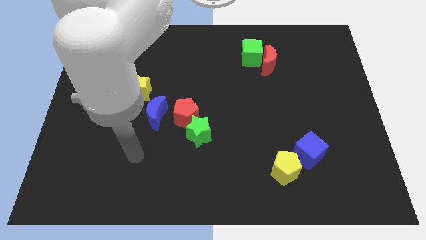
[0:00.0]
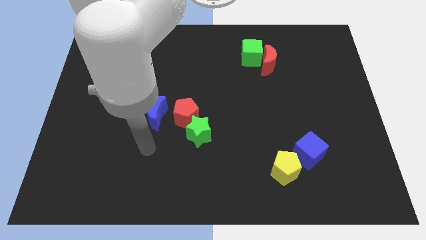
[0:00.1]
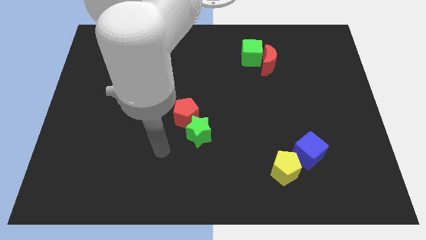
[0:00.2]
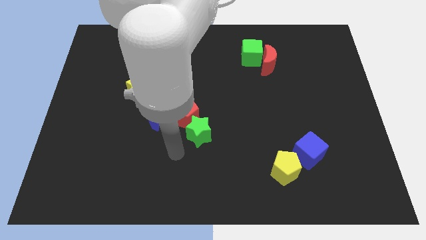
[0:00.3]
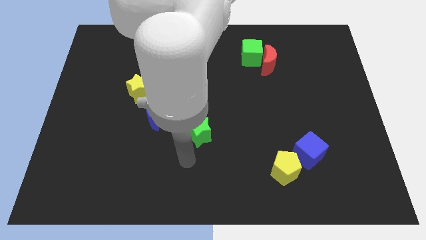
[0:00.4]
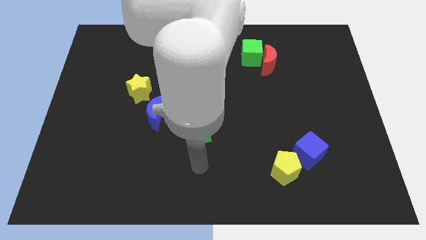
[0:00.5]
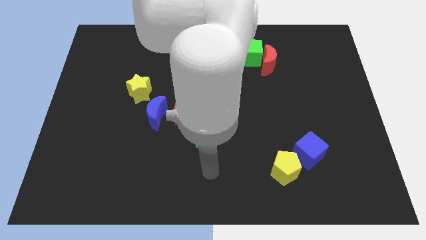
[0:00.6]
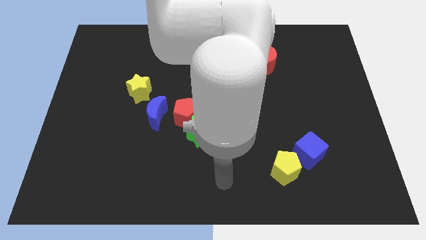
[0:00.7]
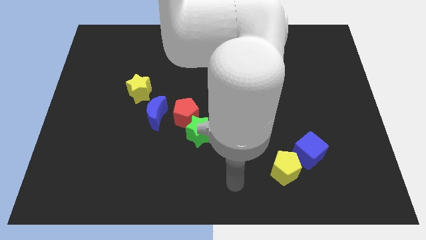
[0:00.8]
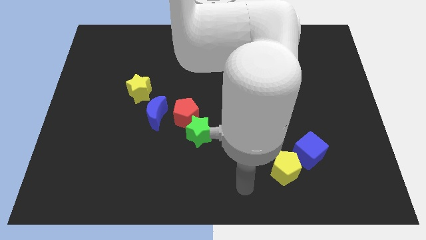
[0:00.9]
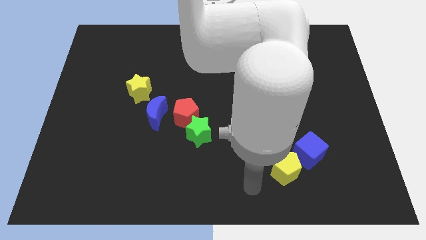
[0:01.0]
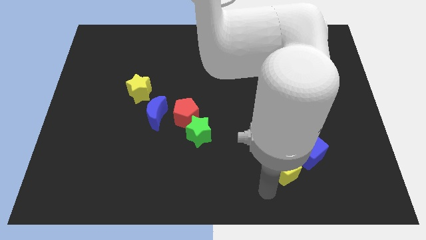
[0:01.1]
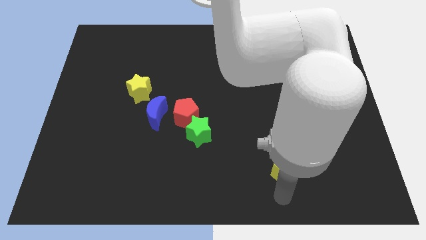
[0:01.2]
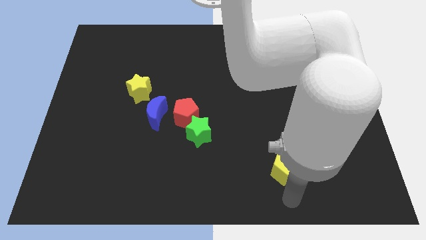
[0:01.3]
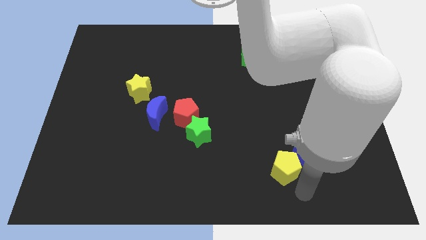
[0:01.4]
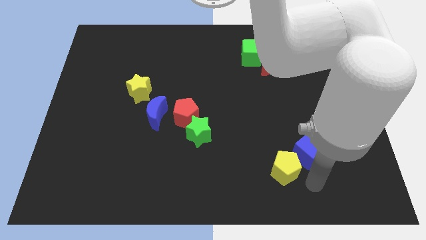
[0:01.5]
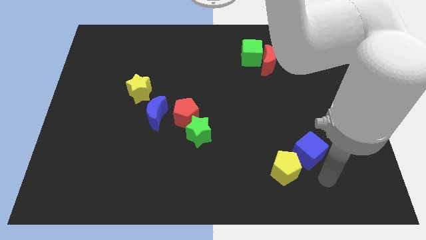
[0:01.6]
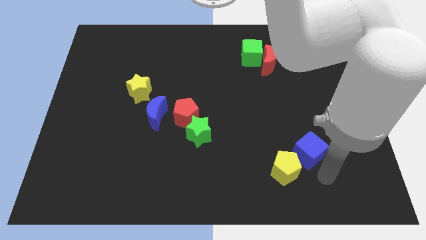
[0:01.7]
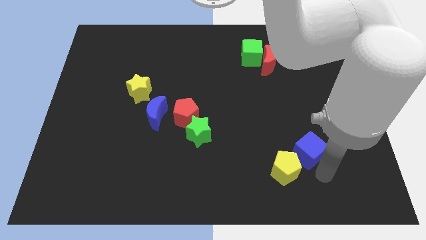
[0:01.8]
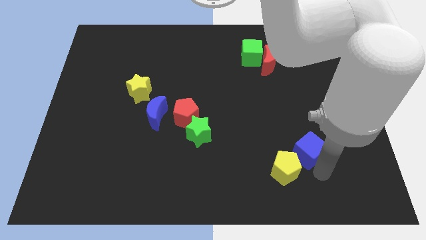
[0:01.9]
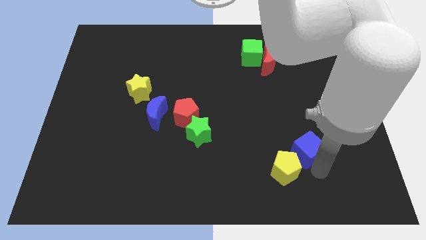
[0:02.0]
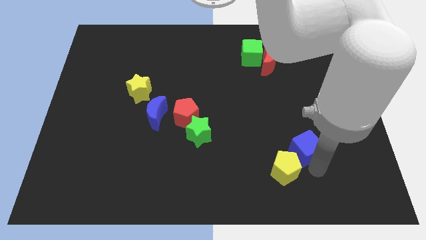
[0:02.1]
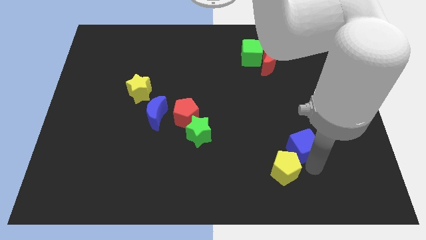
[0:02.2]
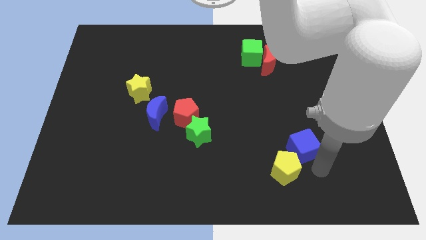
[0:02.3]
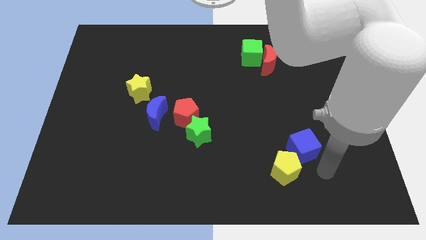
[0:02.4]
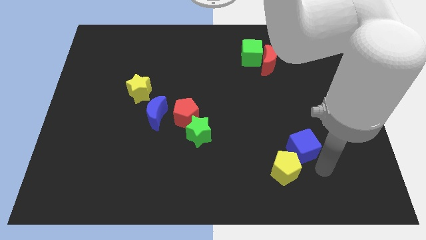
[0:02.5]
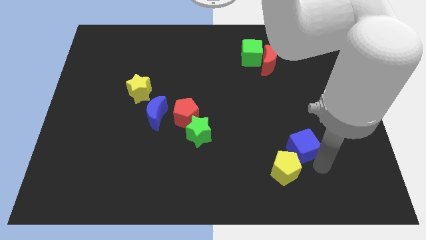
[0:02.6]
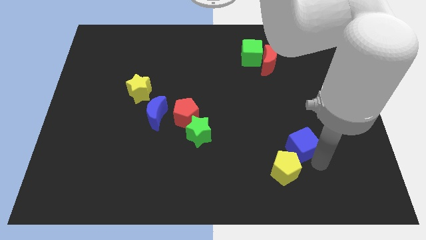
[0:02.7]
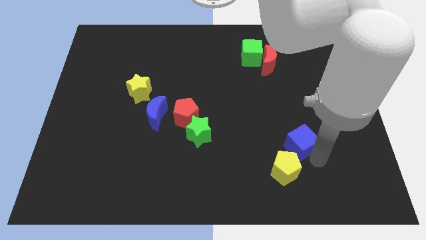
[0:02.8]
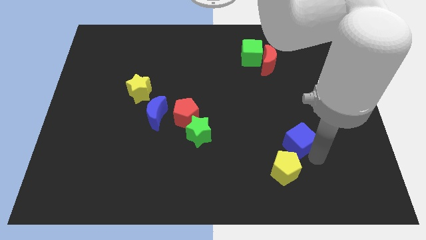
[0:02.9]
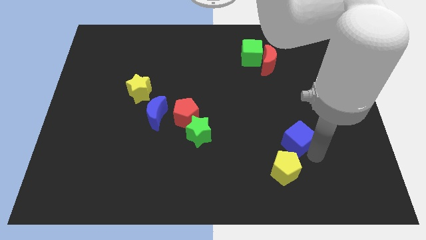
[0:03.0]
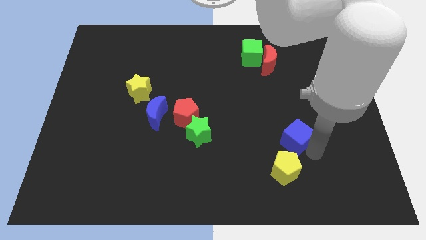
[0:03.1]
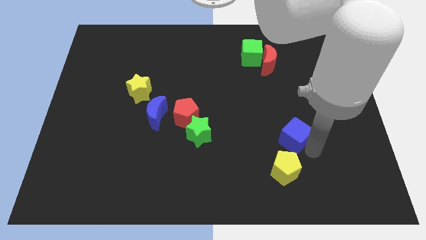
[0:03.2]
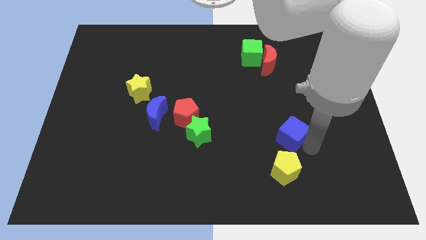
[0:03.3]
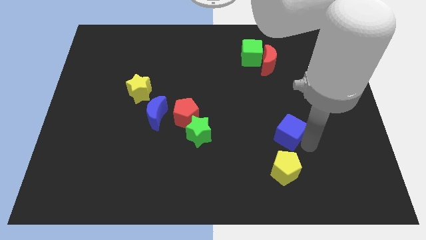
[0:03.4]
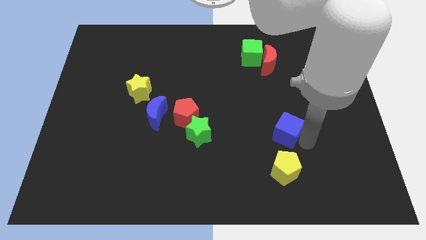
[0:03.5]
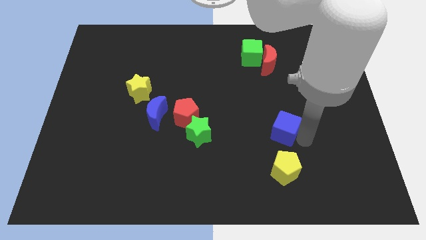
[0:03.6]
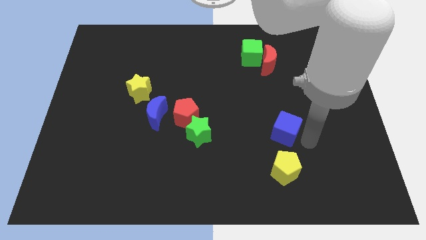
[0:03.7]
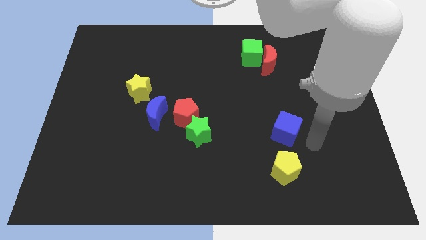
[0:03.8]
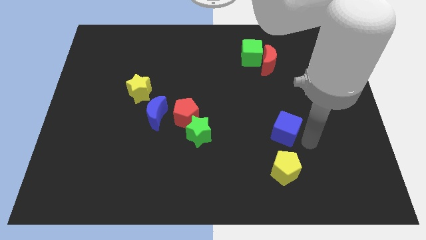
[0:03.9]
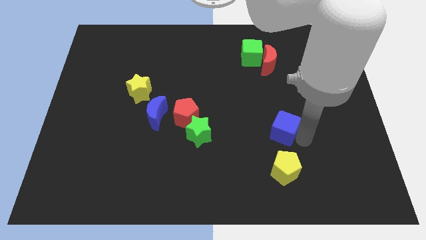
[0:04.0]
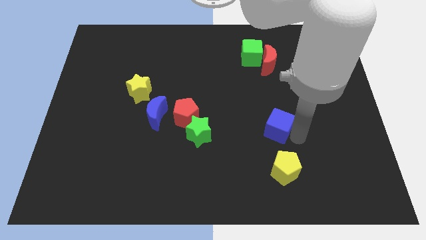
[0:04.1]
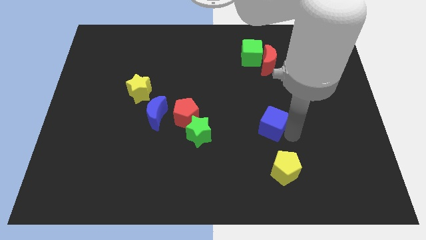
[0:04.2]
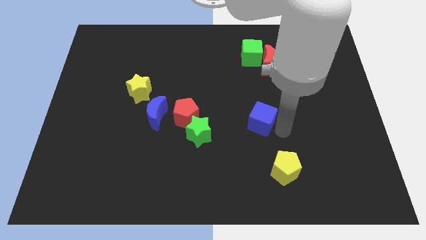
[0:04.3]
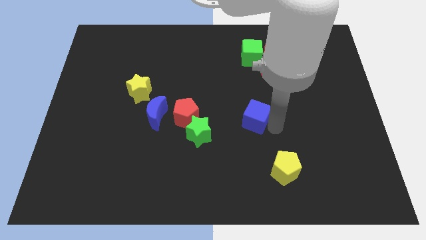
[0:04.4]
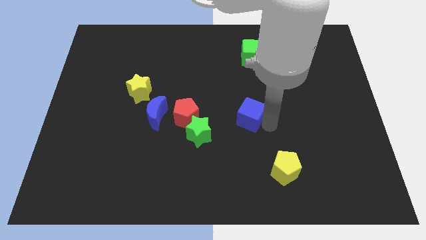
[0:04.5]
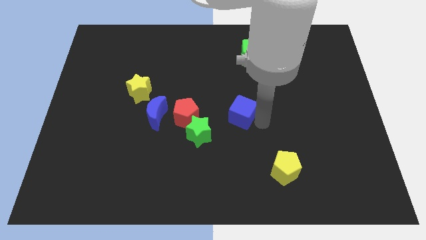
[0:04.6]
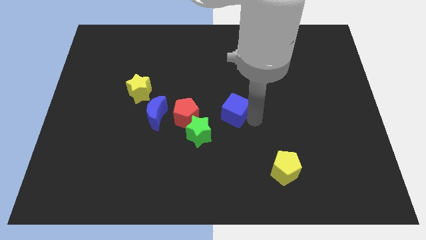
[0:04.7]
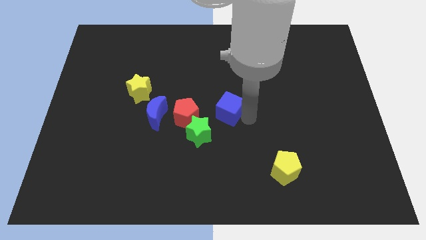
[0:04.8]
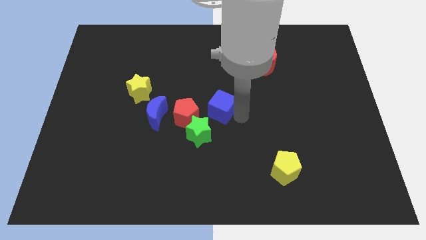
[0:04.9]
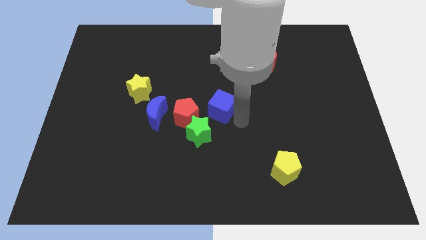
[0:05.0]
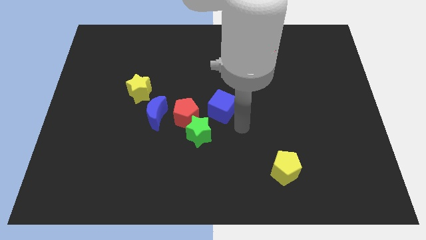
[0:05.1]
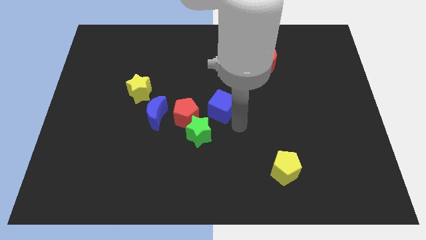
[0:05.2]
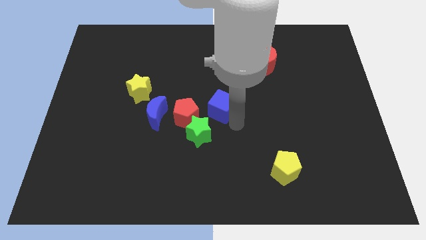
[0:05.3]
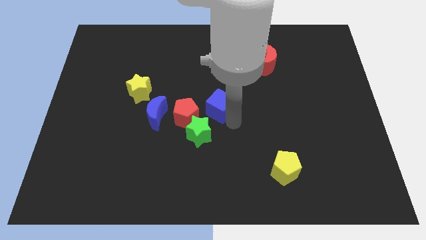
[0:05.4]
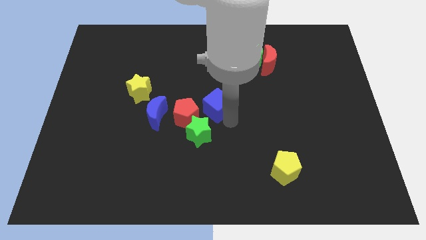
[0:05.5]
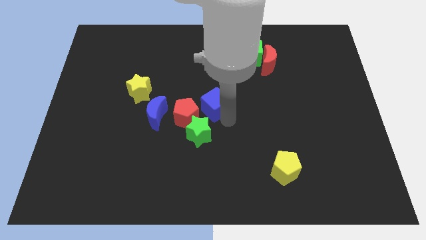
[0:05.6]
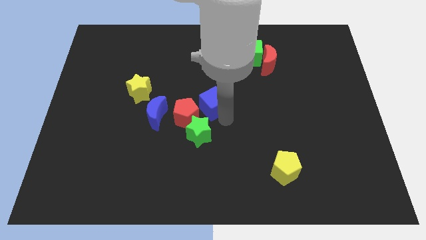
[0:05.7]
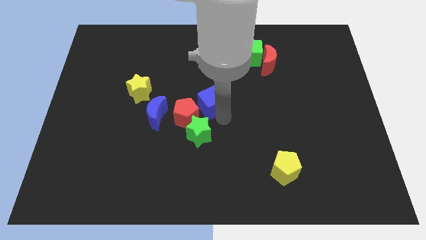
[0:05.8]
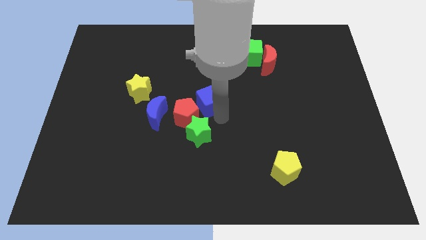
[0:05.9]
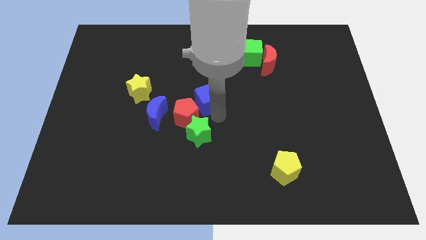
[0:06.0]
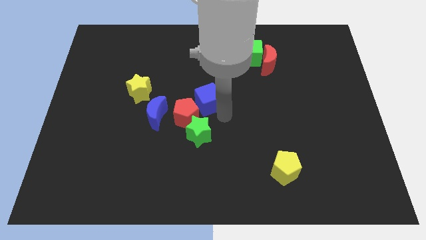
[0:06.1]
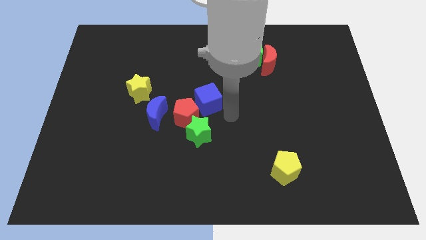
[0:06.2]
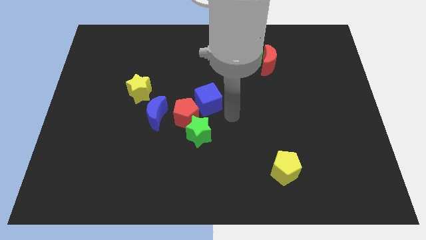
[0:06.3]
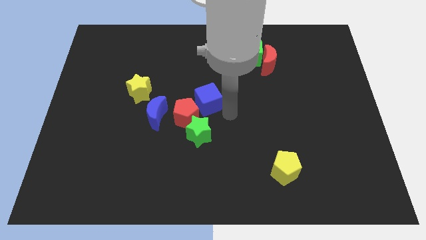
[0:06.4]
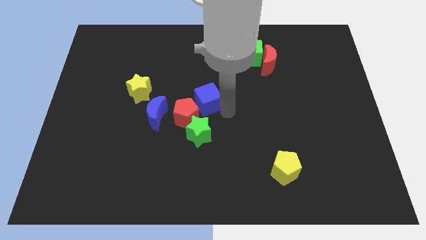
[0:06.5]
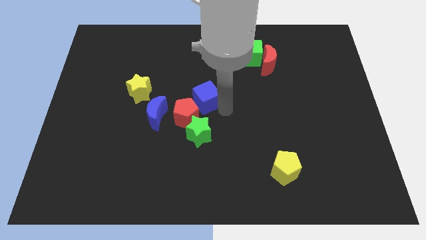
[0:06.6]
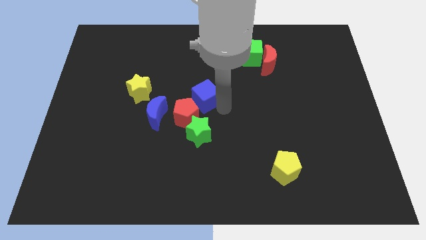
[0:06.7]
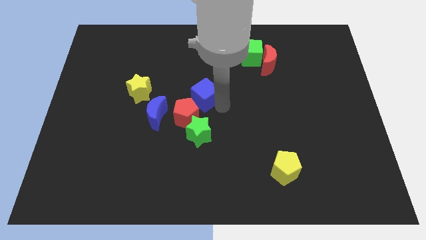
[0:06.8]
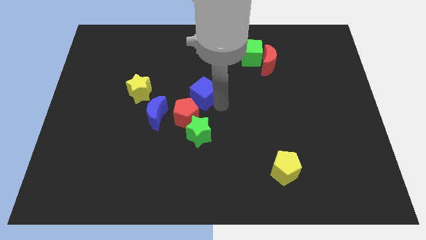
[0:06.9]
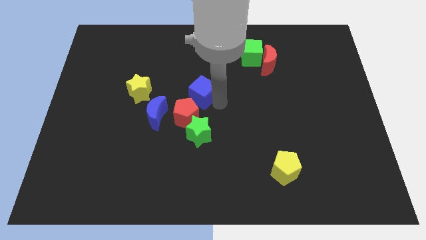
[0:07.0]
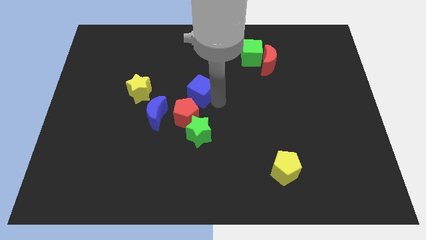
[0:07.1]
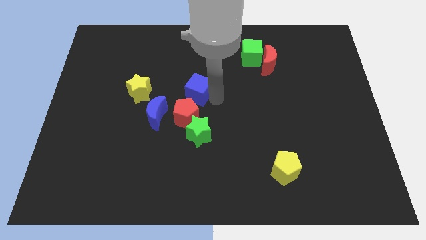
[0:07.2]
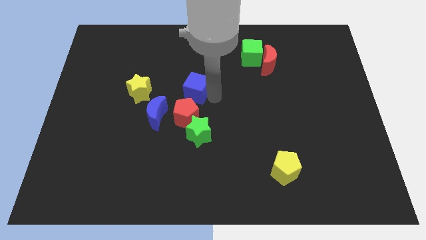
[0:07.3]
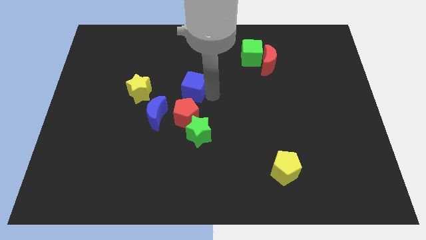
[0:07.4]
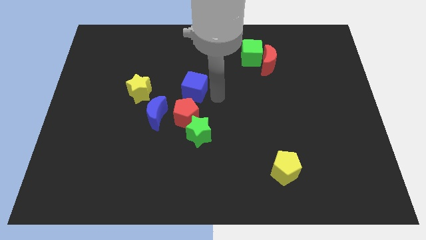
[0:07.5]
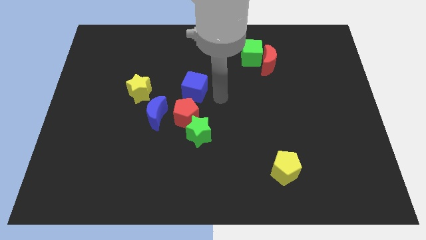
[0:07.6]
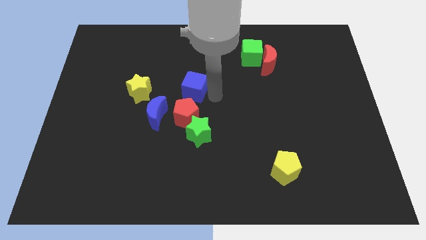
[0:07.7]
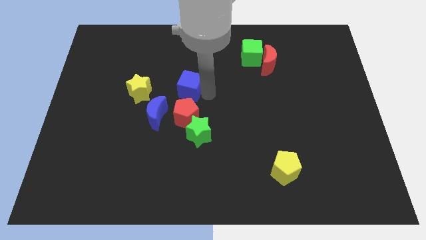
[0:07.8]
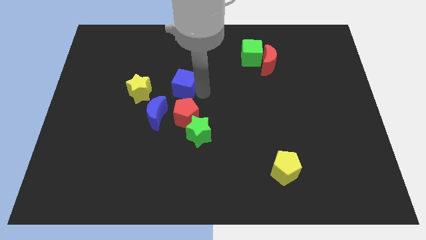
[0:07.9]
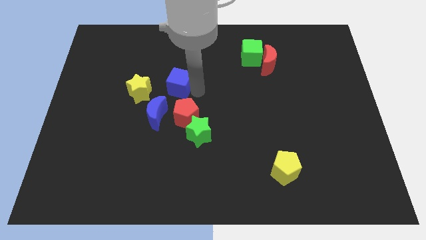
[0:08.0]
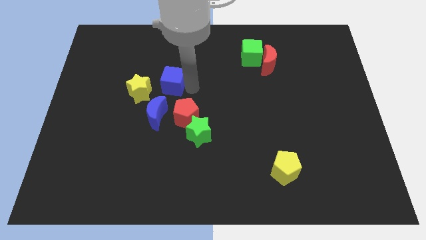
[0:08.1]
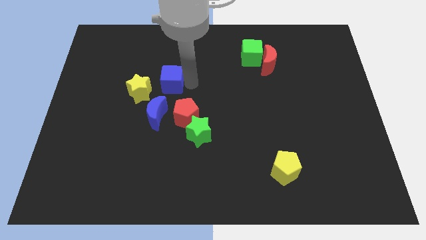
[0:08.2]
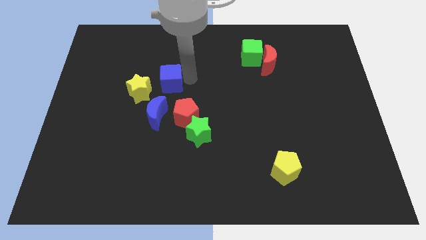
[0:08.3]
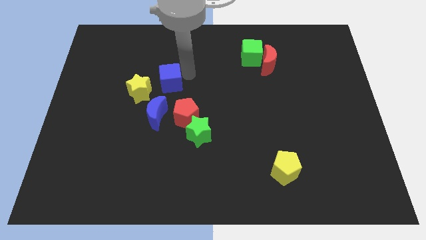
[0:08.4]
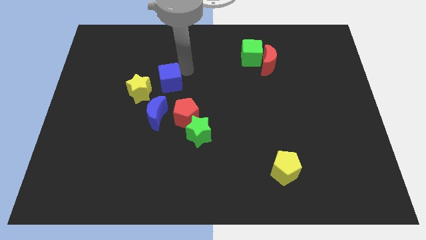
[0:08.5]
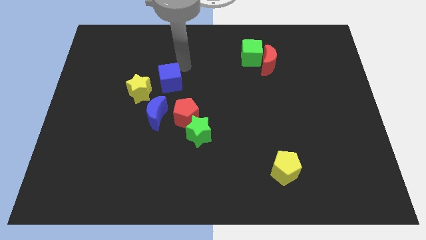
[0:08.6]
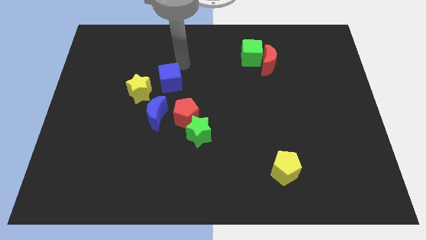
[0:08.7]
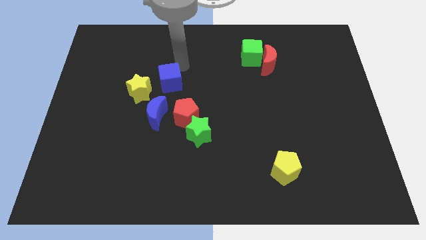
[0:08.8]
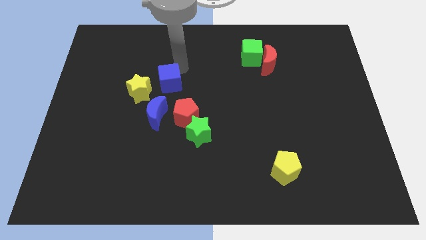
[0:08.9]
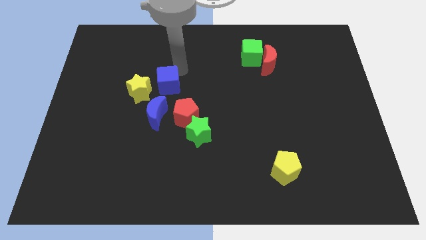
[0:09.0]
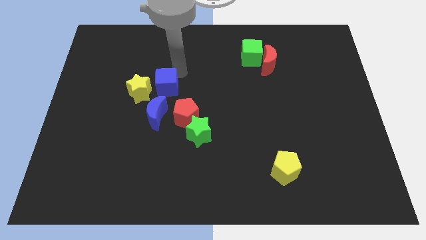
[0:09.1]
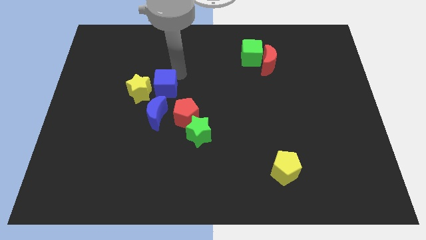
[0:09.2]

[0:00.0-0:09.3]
move the blue cube close to the yellow star
